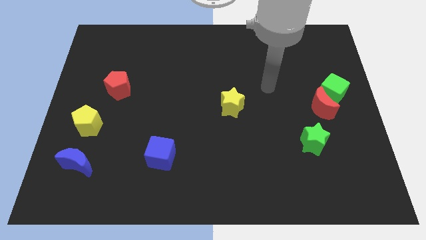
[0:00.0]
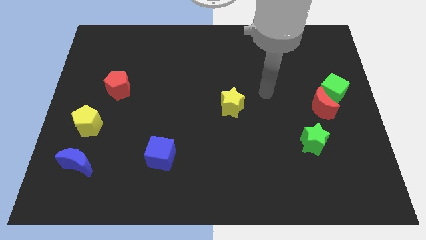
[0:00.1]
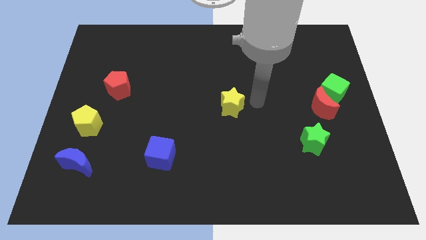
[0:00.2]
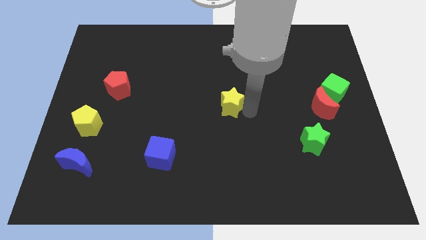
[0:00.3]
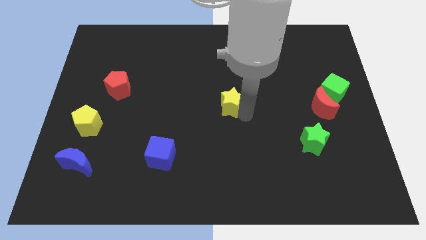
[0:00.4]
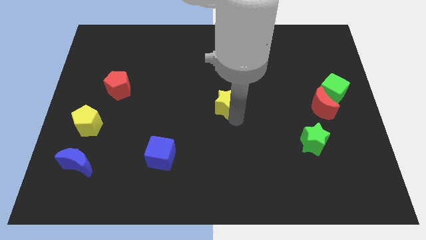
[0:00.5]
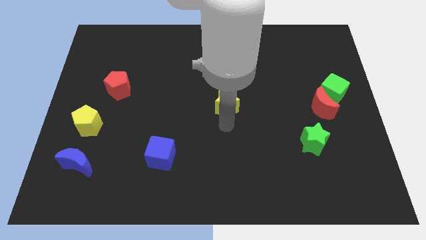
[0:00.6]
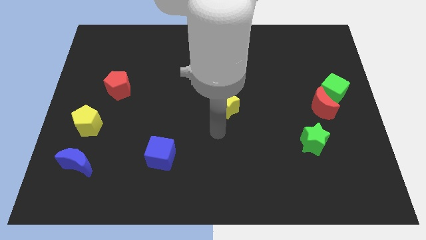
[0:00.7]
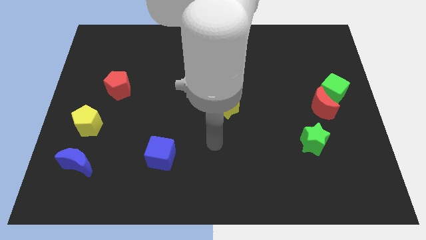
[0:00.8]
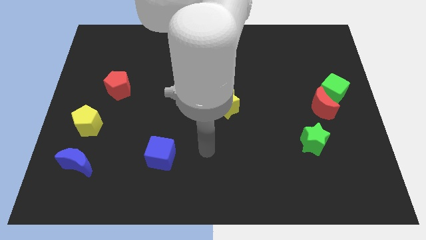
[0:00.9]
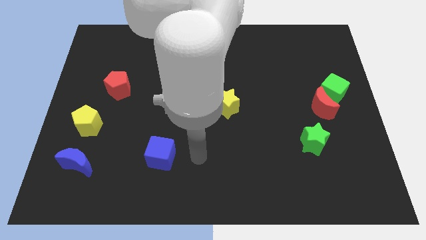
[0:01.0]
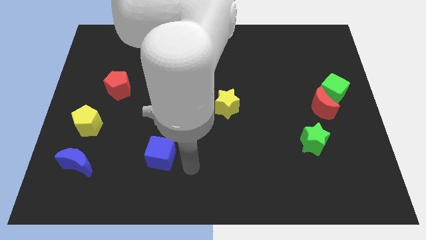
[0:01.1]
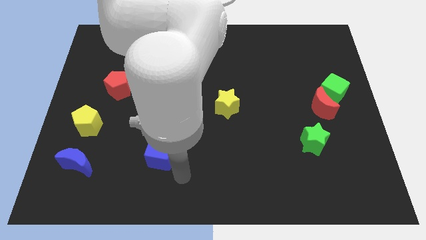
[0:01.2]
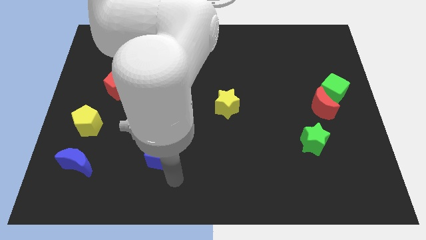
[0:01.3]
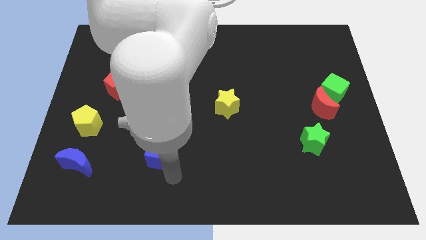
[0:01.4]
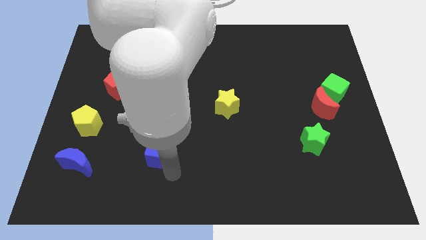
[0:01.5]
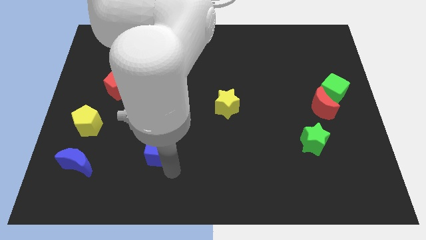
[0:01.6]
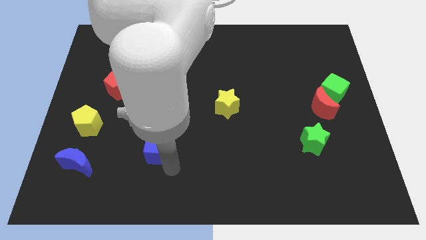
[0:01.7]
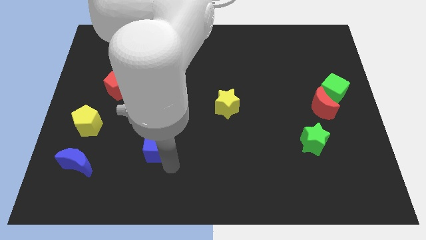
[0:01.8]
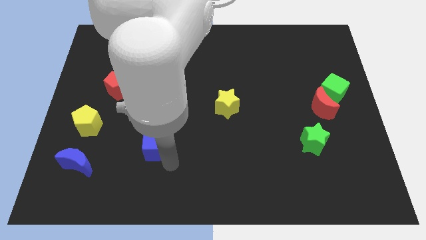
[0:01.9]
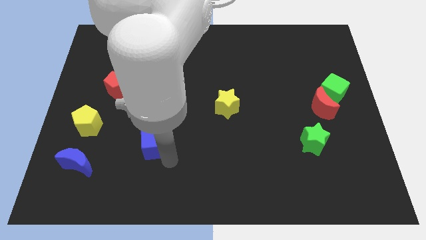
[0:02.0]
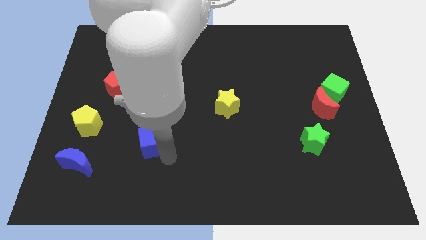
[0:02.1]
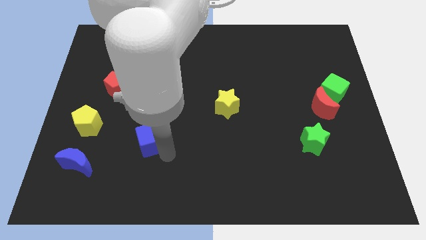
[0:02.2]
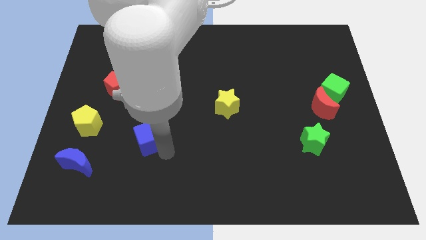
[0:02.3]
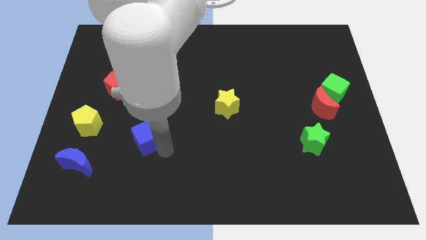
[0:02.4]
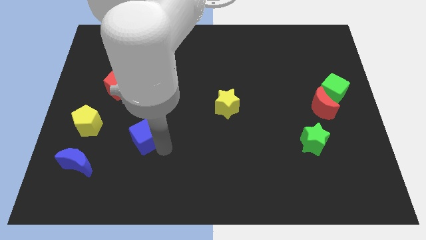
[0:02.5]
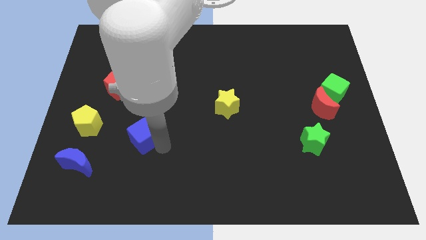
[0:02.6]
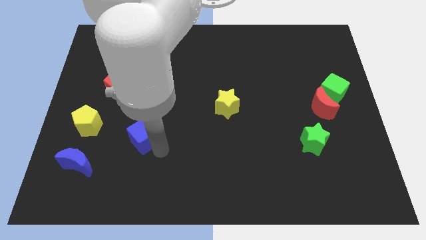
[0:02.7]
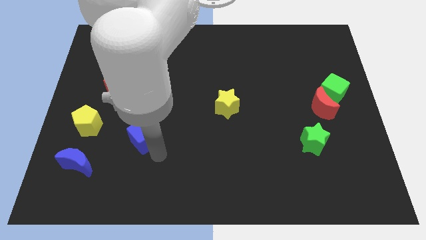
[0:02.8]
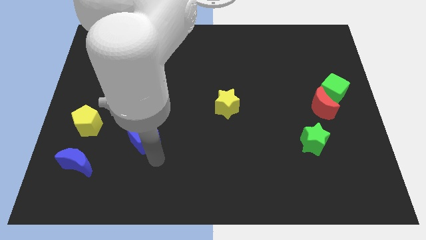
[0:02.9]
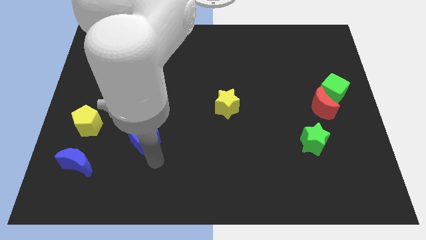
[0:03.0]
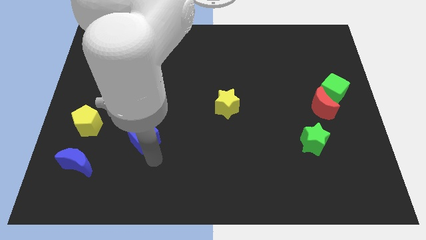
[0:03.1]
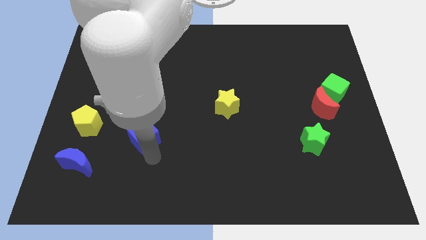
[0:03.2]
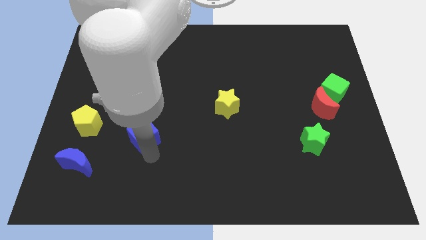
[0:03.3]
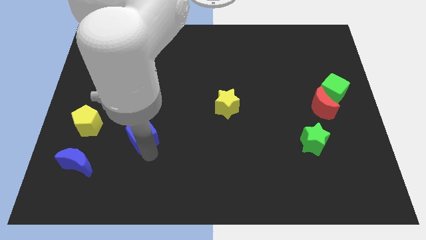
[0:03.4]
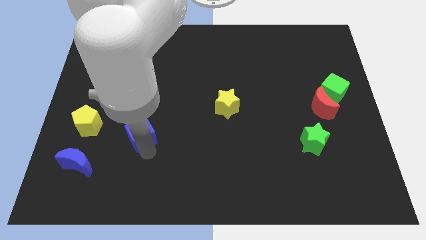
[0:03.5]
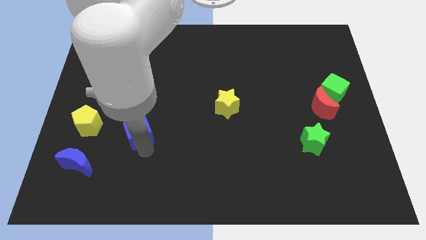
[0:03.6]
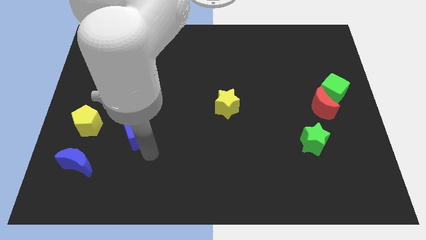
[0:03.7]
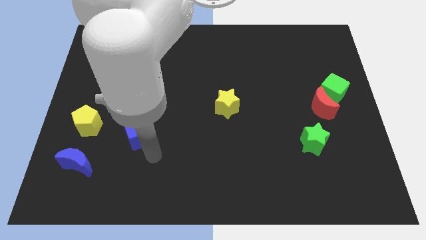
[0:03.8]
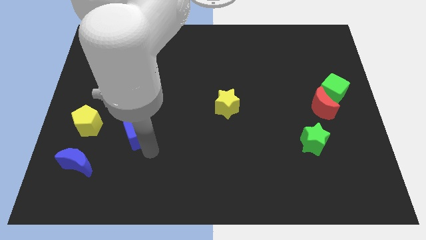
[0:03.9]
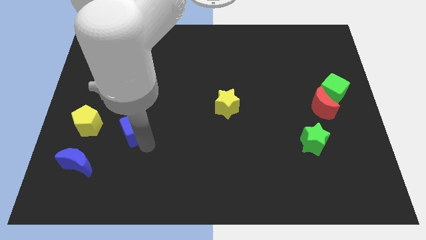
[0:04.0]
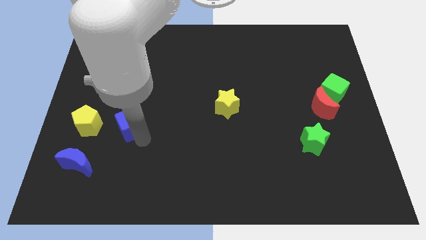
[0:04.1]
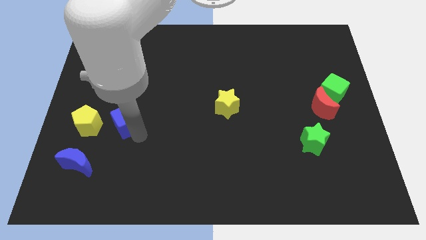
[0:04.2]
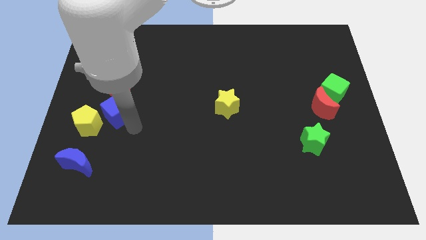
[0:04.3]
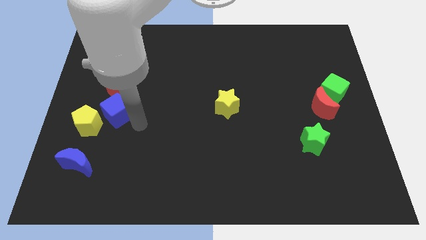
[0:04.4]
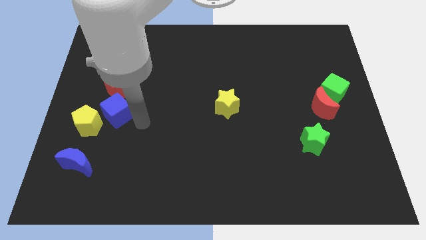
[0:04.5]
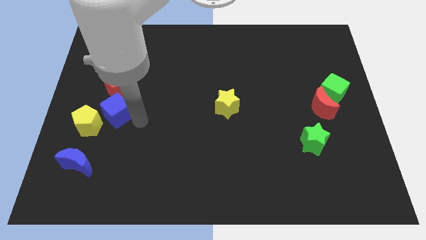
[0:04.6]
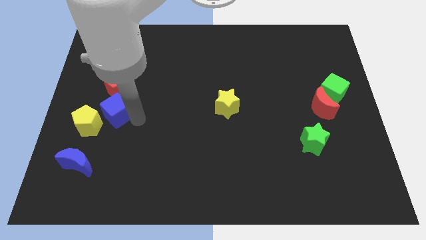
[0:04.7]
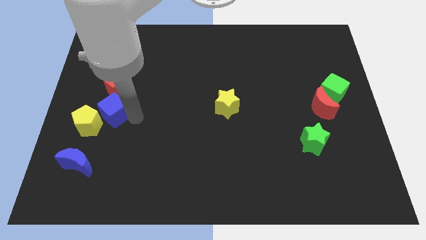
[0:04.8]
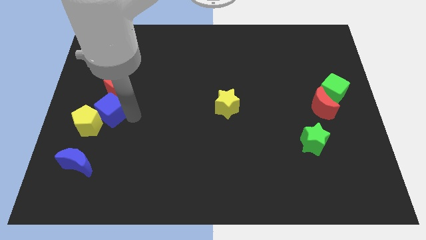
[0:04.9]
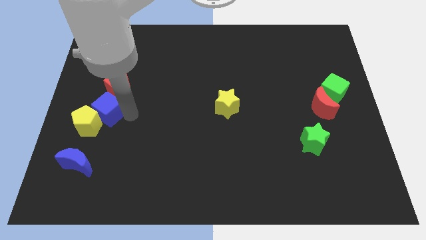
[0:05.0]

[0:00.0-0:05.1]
move the blue cube above the blue moon

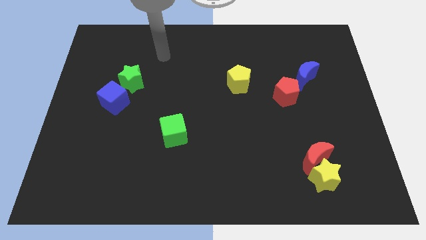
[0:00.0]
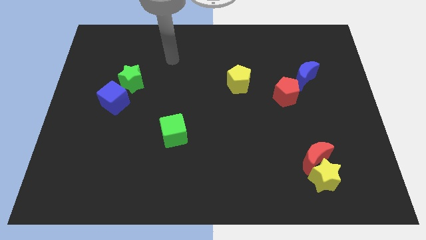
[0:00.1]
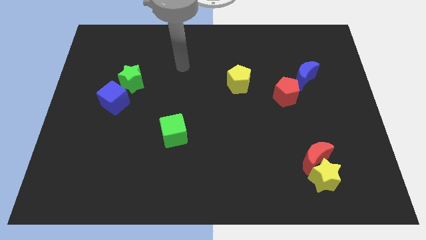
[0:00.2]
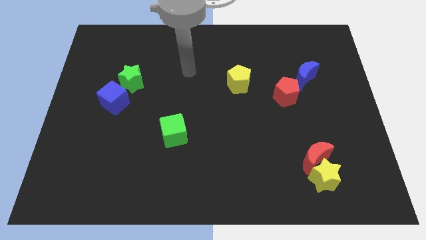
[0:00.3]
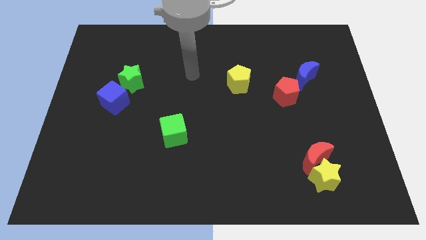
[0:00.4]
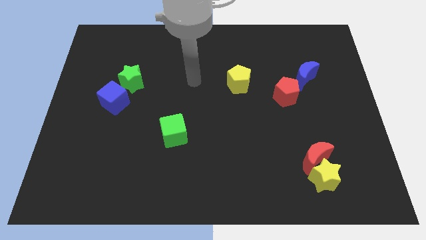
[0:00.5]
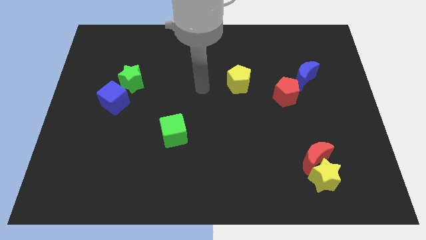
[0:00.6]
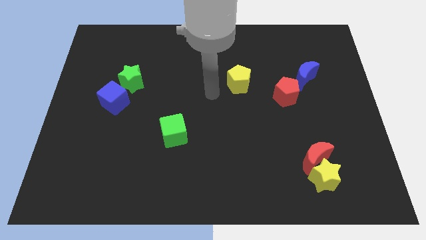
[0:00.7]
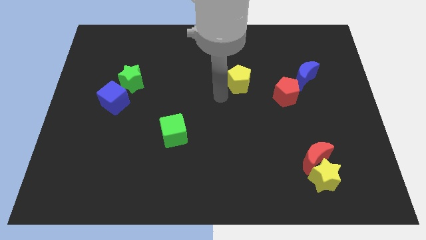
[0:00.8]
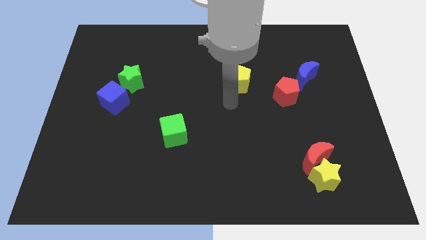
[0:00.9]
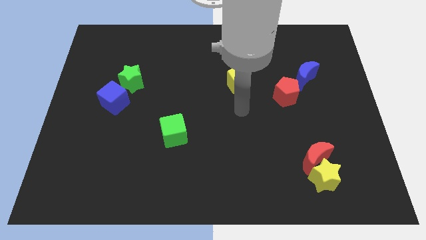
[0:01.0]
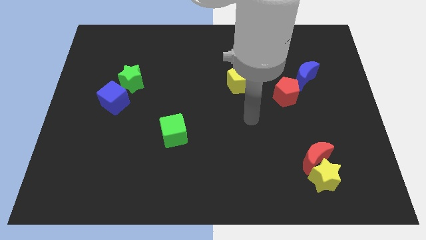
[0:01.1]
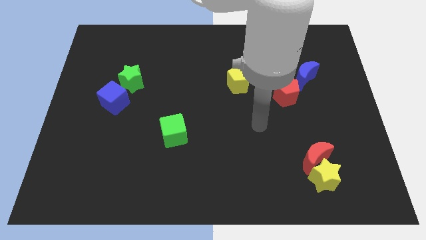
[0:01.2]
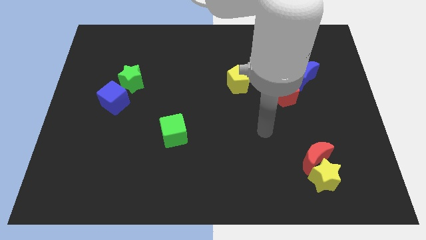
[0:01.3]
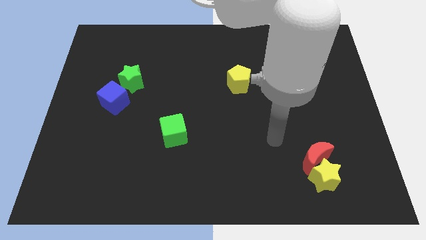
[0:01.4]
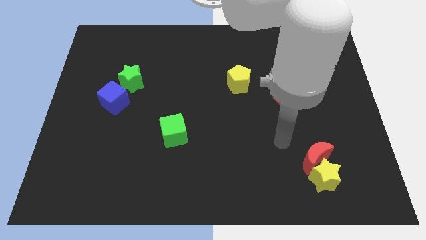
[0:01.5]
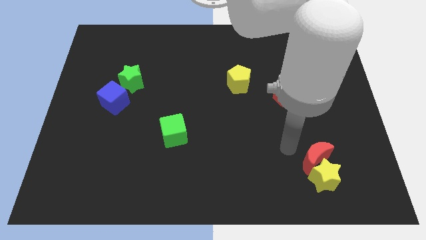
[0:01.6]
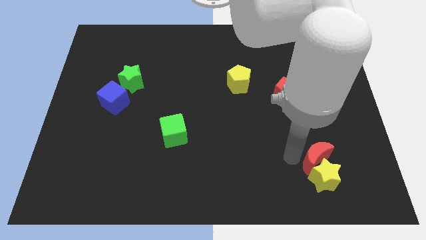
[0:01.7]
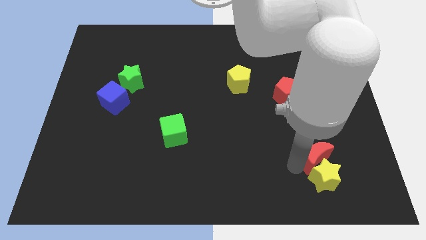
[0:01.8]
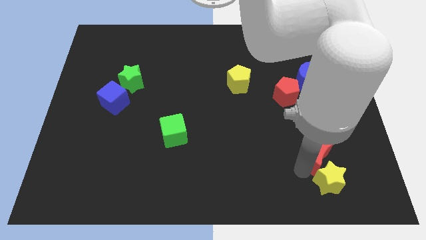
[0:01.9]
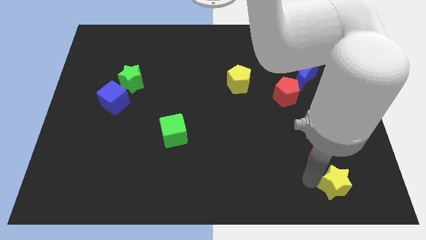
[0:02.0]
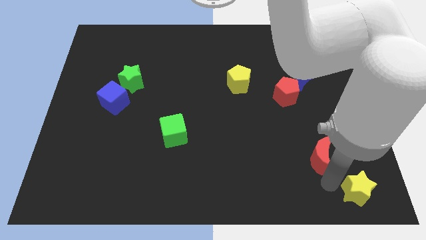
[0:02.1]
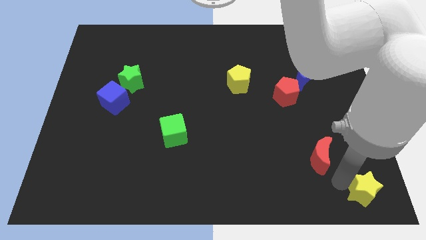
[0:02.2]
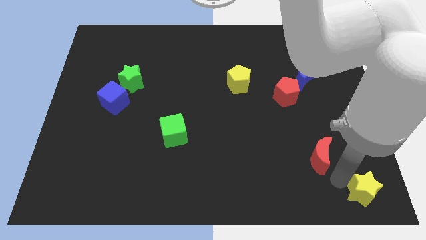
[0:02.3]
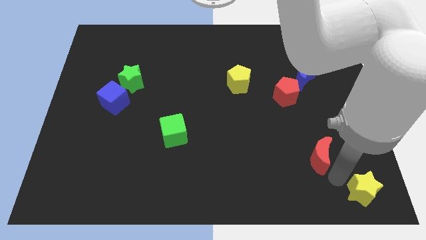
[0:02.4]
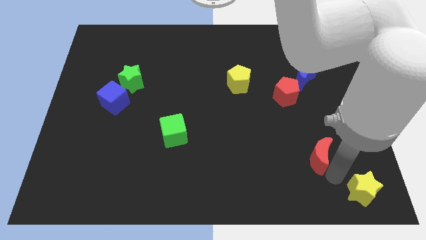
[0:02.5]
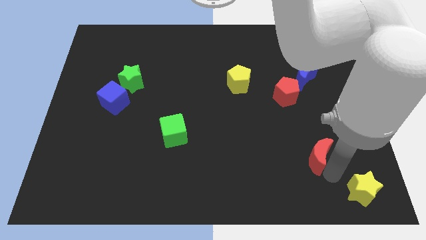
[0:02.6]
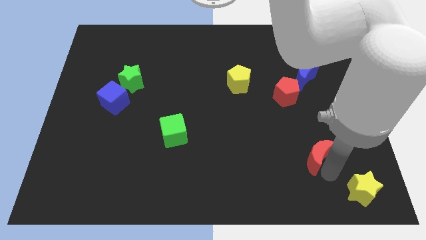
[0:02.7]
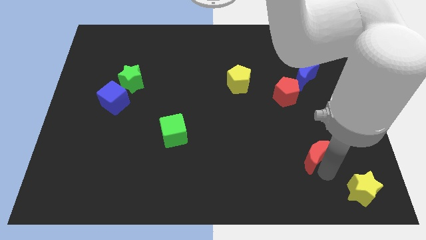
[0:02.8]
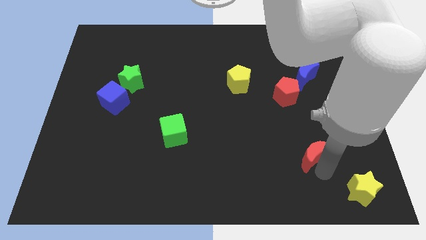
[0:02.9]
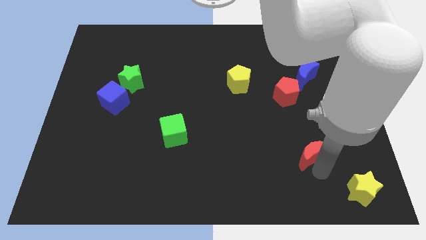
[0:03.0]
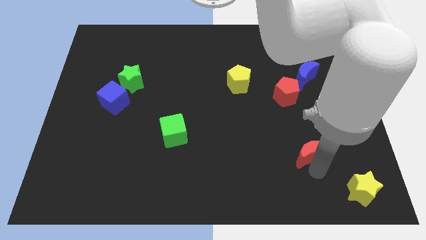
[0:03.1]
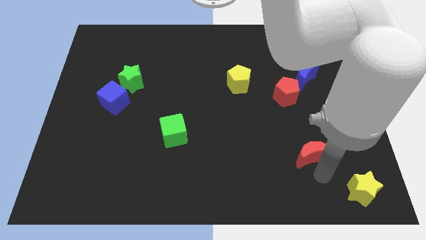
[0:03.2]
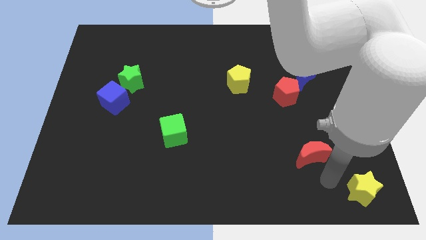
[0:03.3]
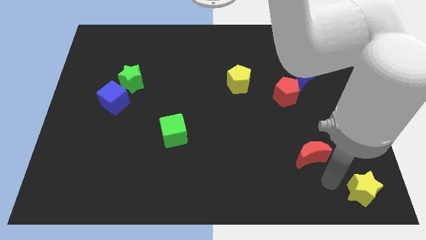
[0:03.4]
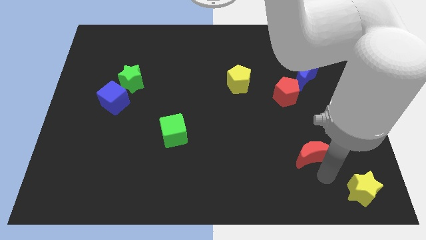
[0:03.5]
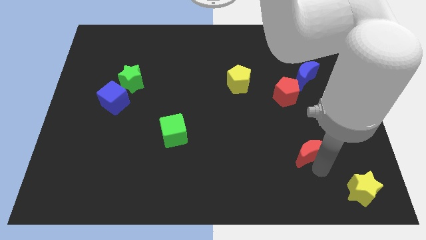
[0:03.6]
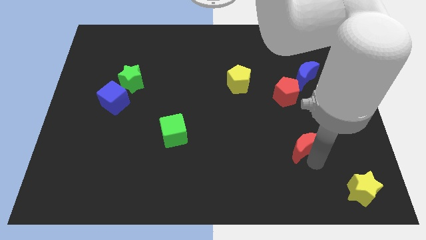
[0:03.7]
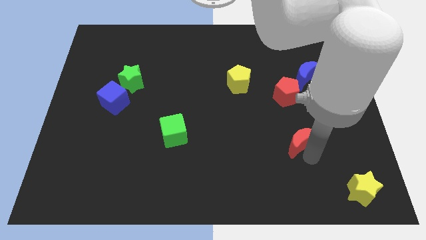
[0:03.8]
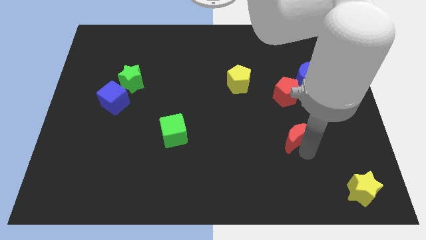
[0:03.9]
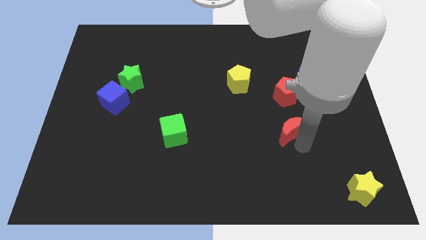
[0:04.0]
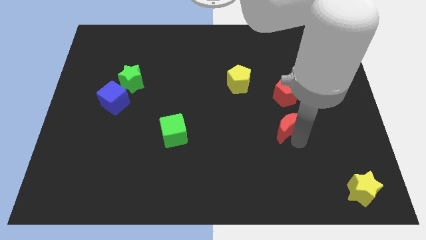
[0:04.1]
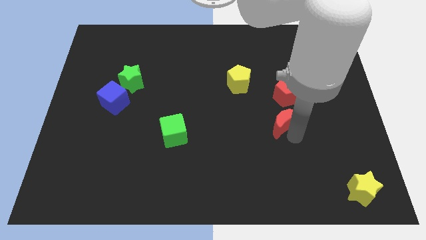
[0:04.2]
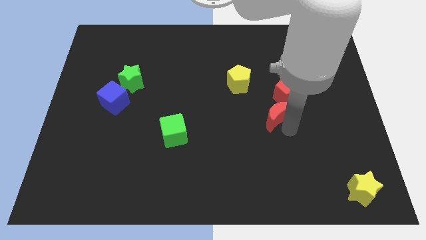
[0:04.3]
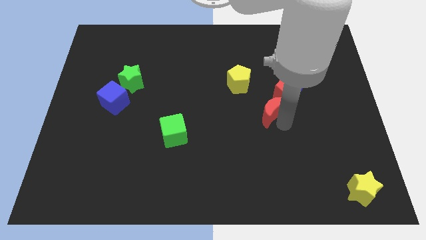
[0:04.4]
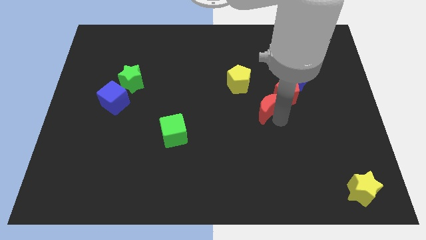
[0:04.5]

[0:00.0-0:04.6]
slide the red moon to the left side of the red pentagon
